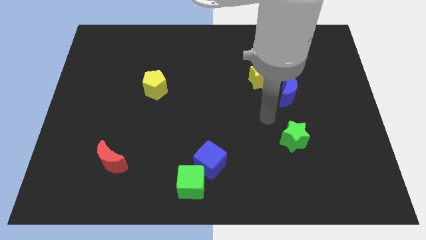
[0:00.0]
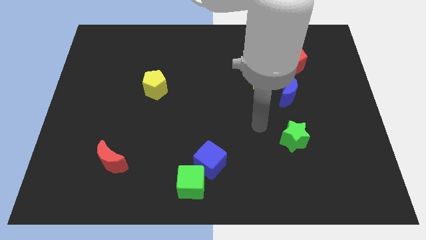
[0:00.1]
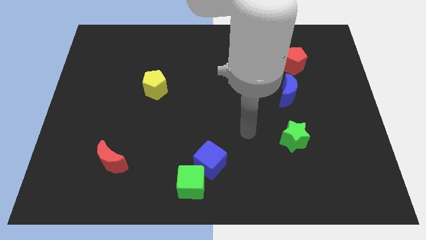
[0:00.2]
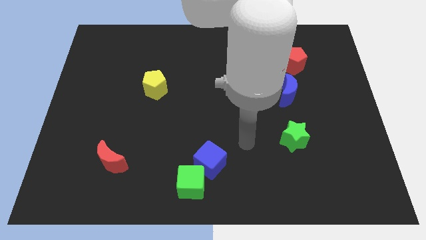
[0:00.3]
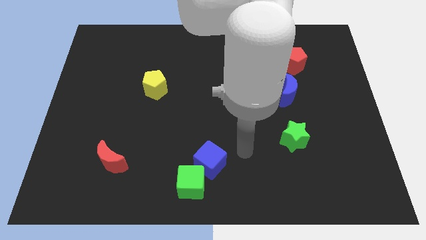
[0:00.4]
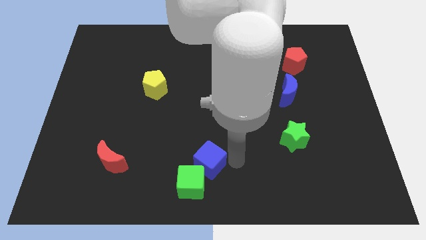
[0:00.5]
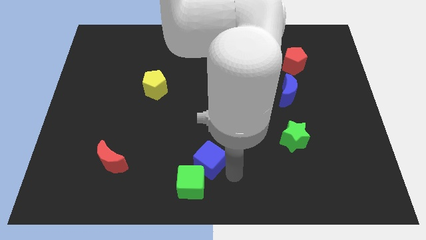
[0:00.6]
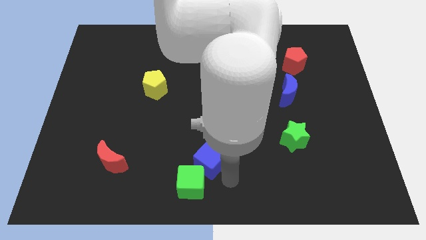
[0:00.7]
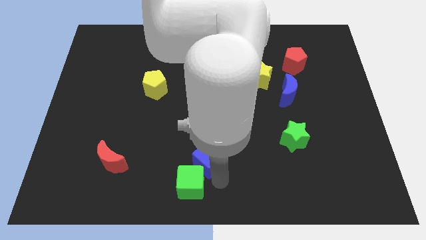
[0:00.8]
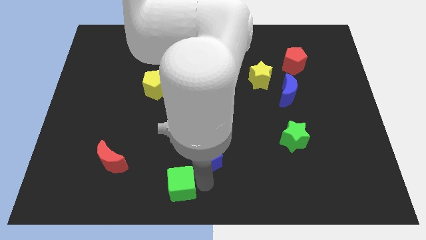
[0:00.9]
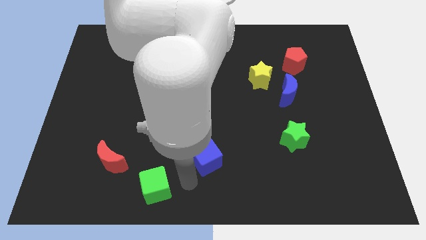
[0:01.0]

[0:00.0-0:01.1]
separate the blue cube from the green cube

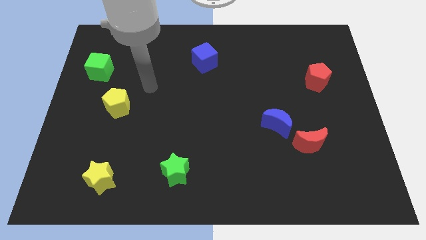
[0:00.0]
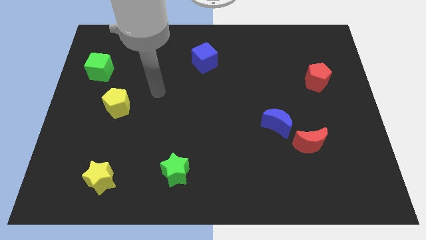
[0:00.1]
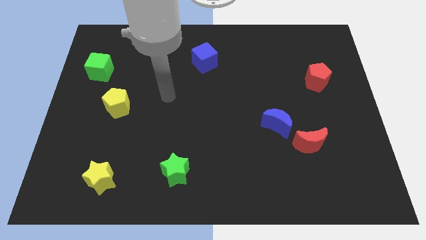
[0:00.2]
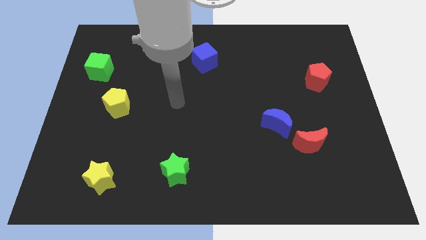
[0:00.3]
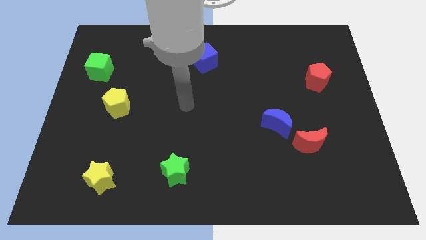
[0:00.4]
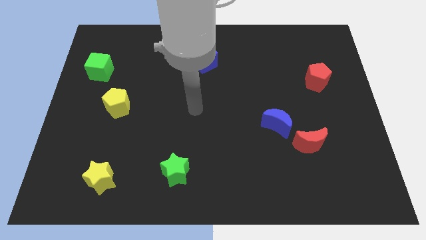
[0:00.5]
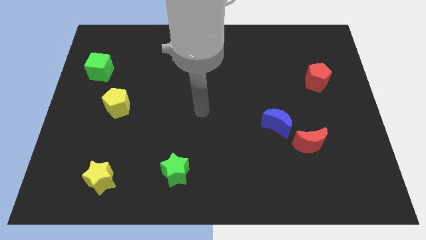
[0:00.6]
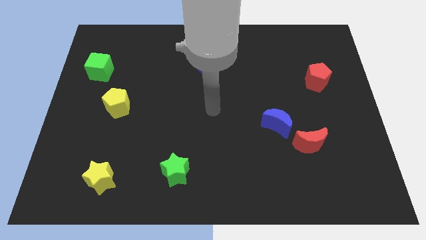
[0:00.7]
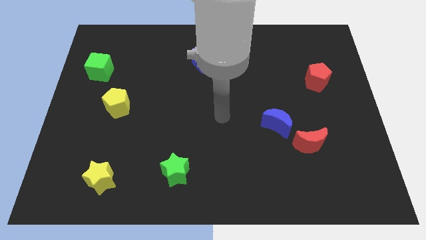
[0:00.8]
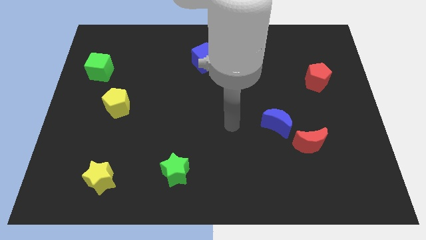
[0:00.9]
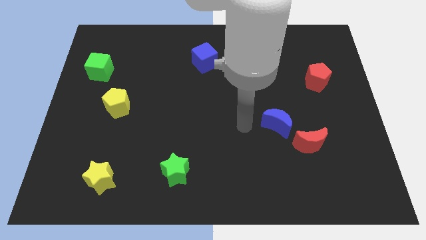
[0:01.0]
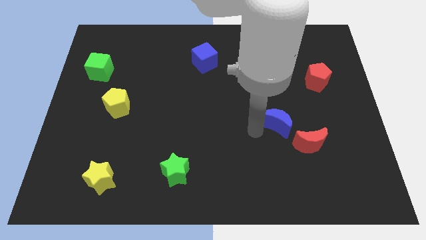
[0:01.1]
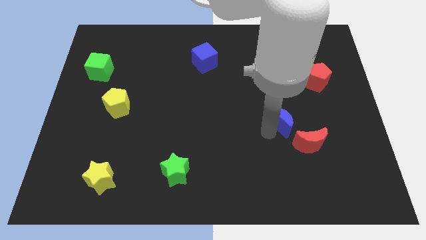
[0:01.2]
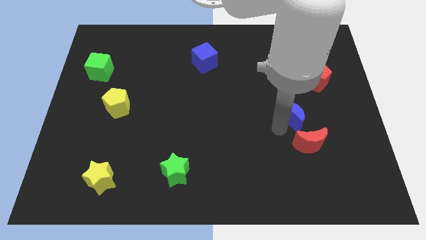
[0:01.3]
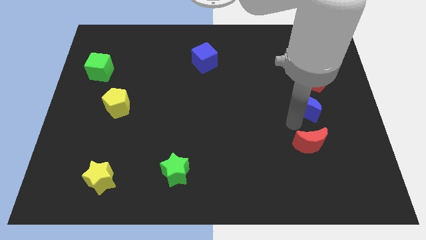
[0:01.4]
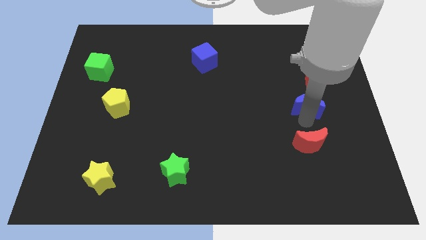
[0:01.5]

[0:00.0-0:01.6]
separate the red moon from the blue moon

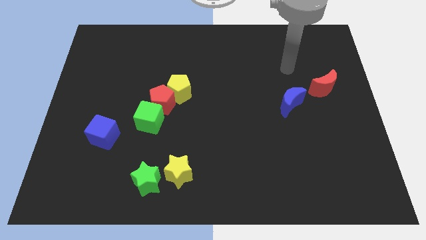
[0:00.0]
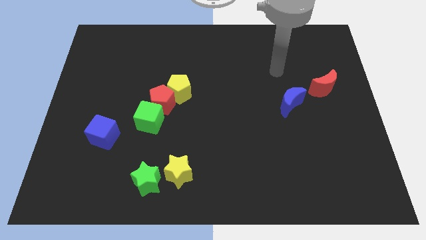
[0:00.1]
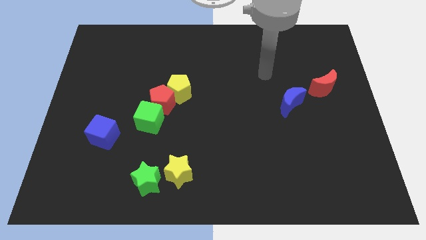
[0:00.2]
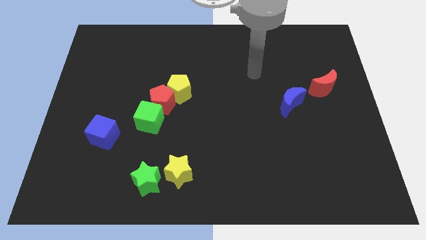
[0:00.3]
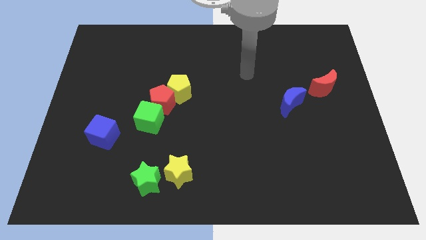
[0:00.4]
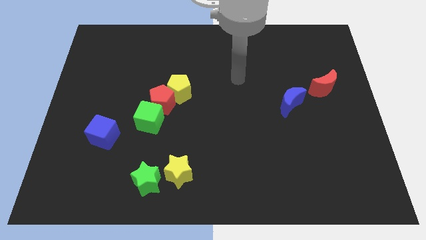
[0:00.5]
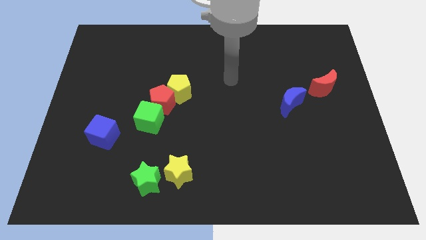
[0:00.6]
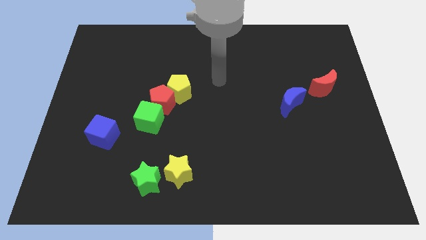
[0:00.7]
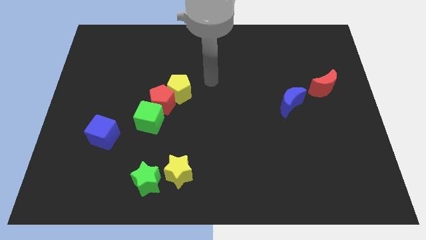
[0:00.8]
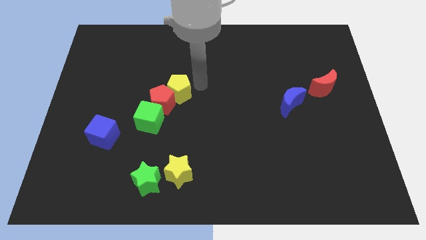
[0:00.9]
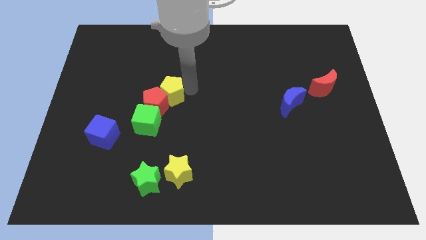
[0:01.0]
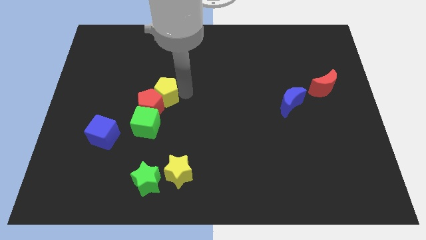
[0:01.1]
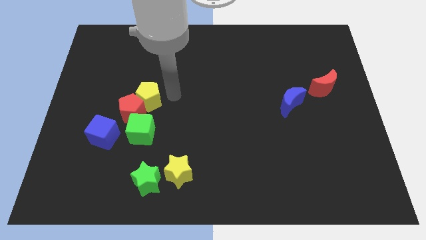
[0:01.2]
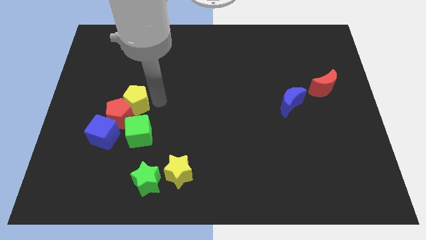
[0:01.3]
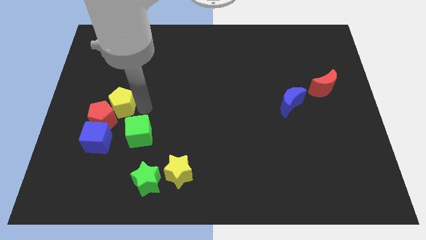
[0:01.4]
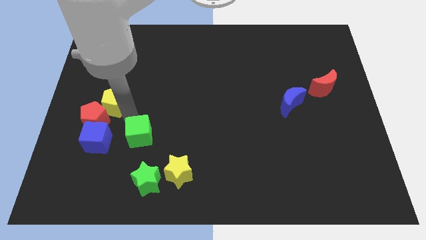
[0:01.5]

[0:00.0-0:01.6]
pull the green cube apart from the red pentagon

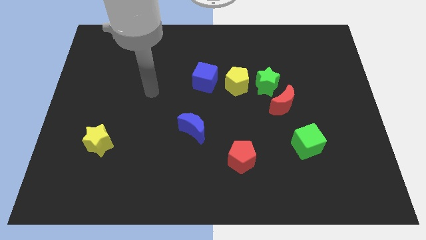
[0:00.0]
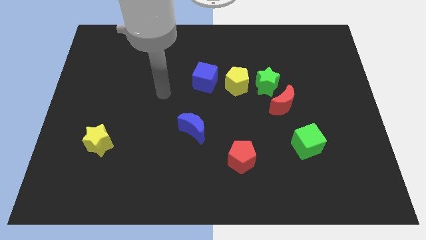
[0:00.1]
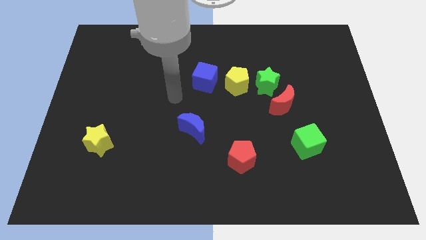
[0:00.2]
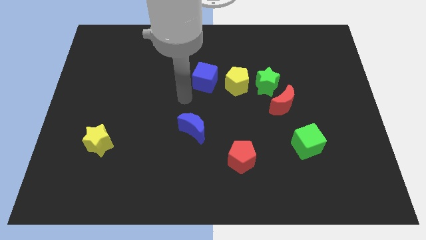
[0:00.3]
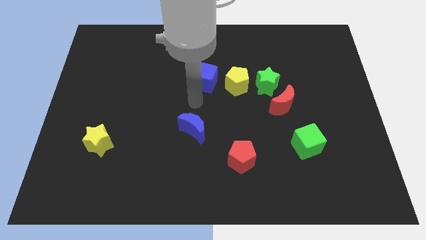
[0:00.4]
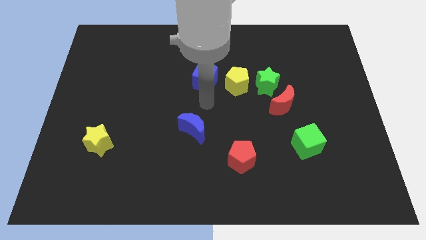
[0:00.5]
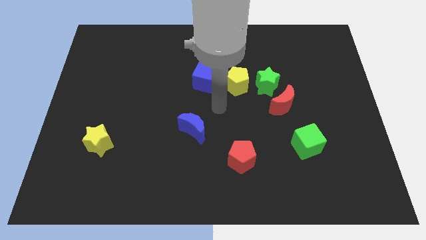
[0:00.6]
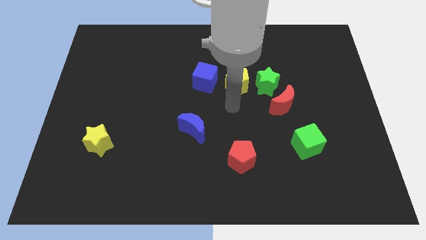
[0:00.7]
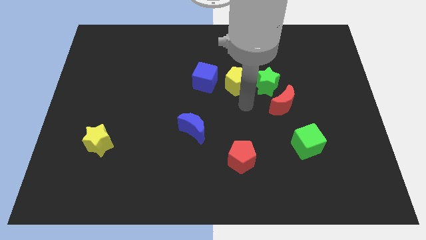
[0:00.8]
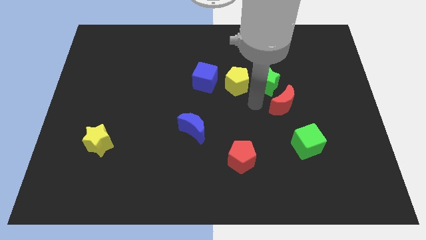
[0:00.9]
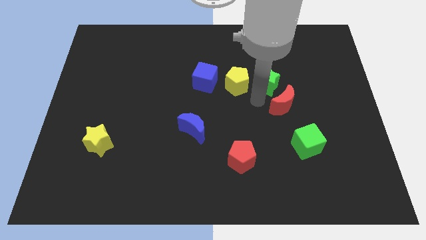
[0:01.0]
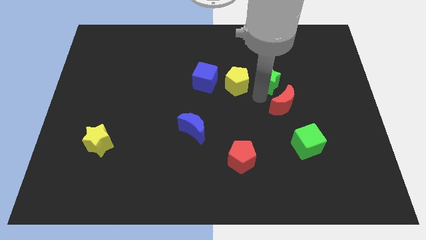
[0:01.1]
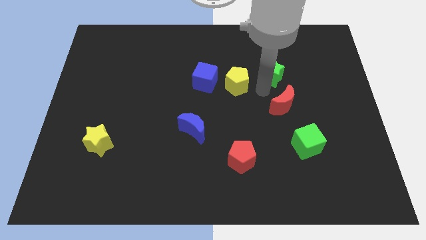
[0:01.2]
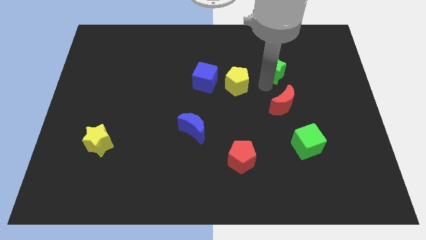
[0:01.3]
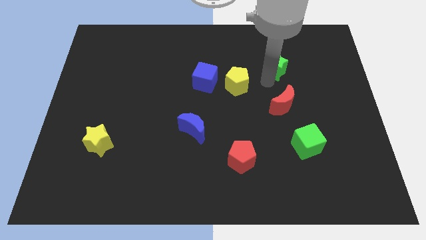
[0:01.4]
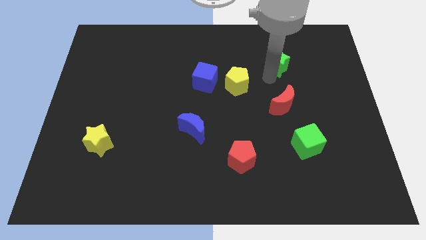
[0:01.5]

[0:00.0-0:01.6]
move the green star away from the yellow pentagon and red moon

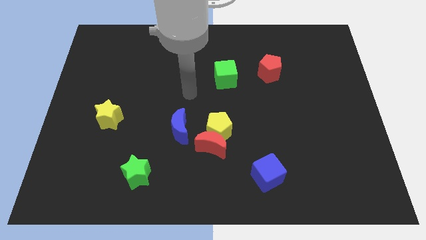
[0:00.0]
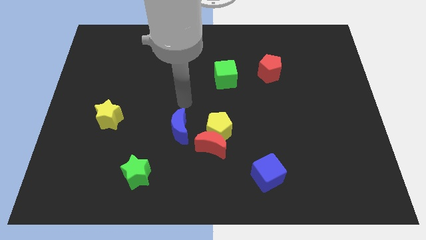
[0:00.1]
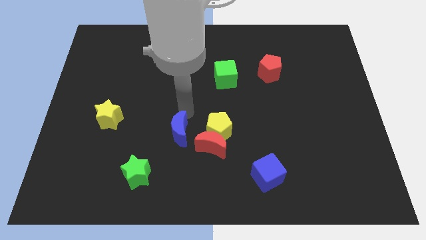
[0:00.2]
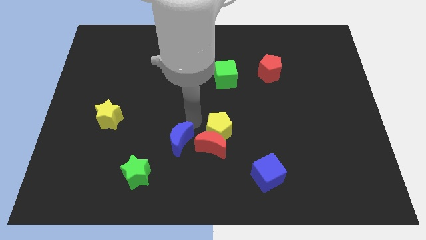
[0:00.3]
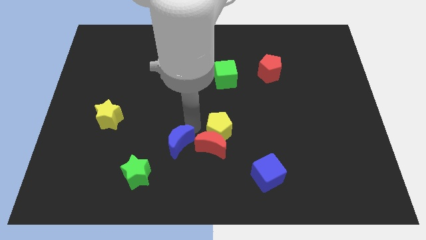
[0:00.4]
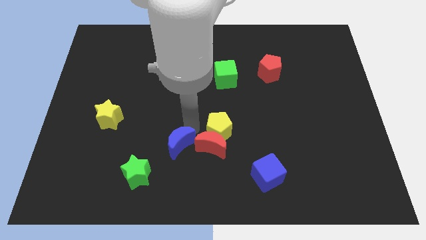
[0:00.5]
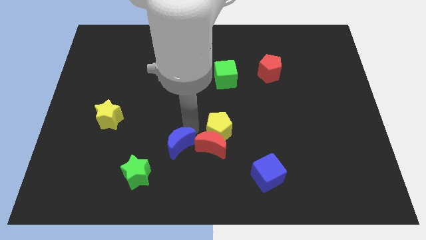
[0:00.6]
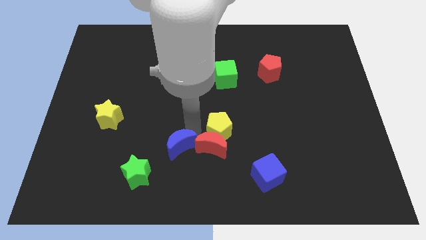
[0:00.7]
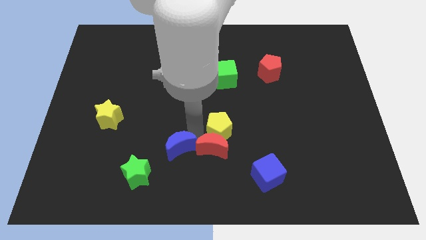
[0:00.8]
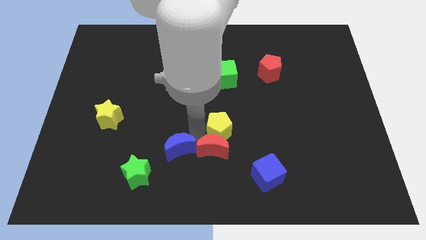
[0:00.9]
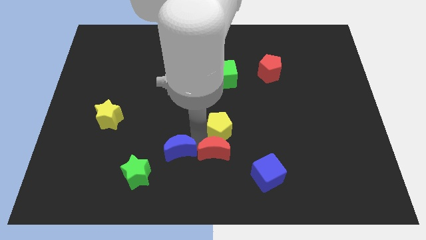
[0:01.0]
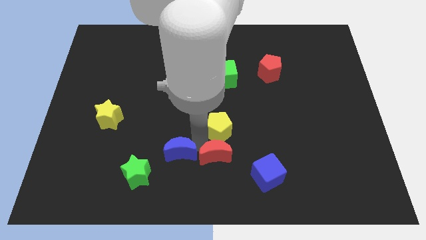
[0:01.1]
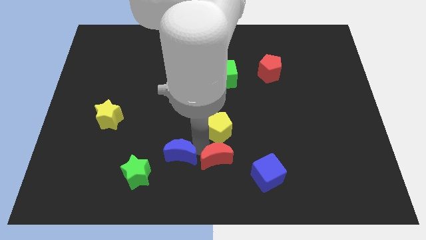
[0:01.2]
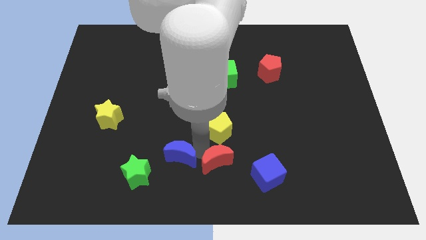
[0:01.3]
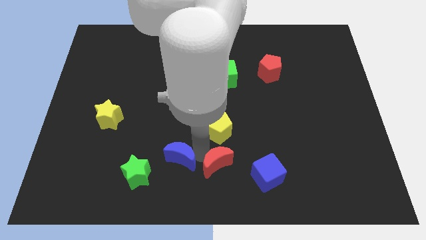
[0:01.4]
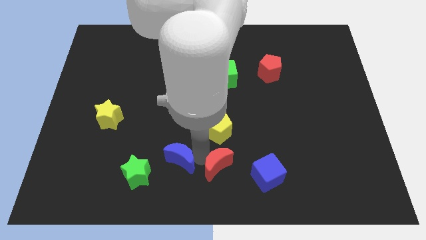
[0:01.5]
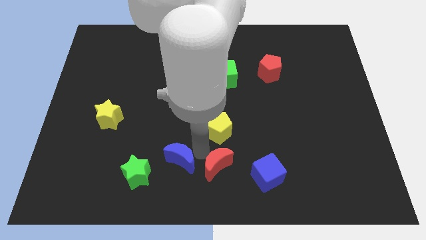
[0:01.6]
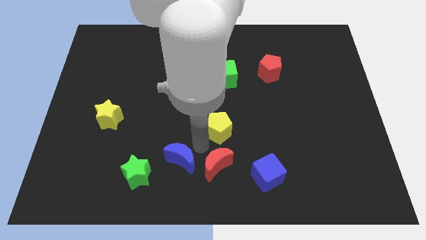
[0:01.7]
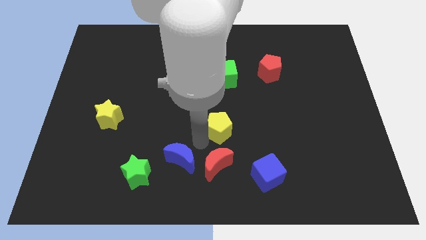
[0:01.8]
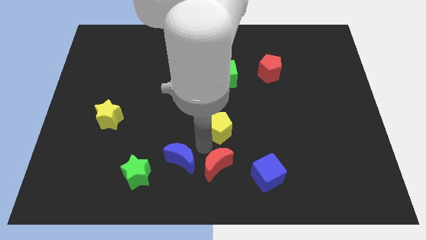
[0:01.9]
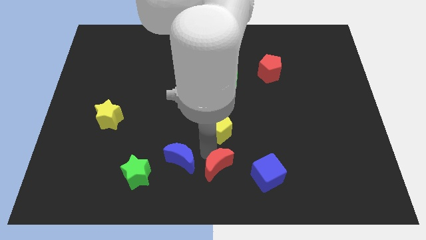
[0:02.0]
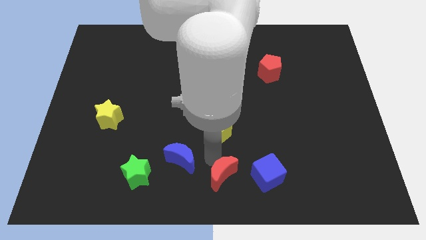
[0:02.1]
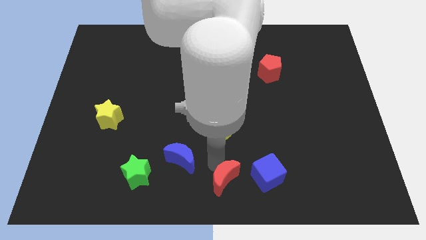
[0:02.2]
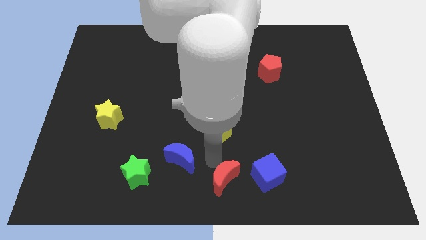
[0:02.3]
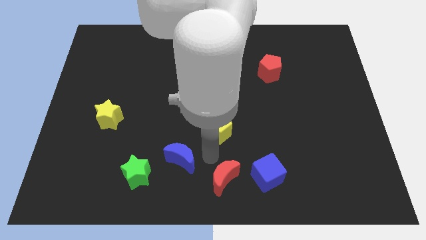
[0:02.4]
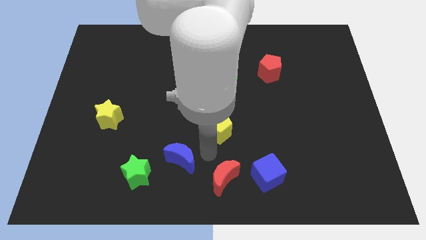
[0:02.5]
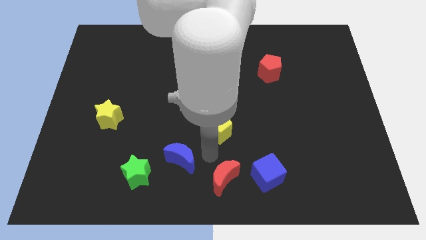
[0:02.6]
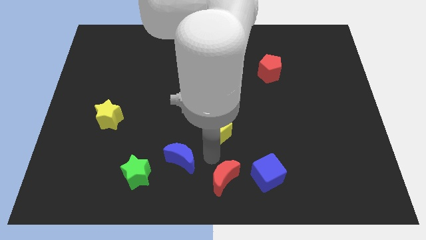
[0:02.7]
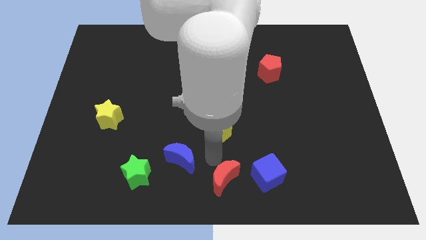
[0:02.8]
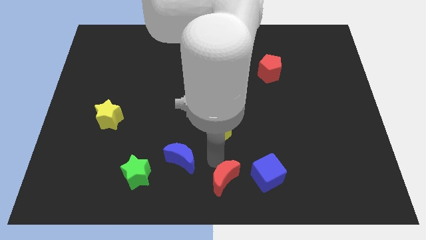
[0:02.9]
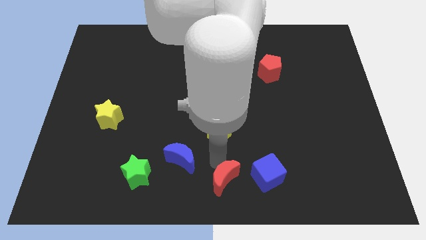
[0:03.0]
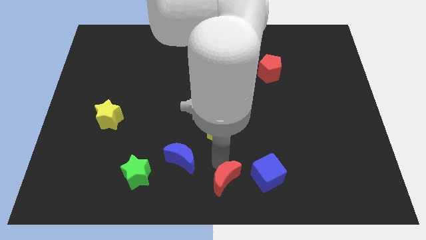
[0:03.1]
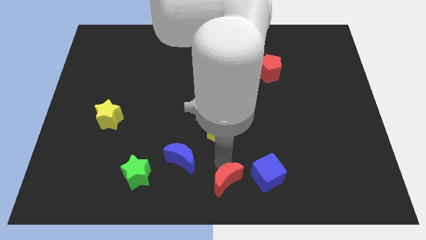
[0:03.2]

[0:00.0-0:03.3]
pull the red moon apart from the yellow pentagon and blue moon
